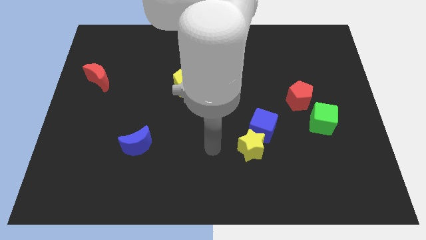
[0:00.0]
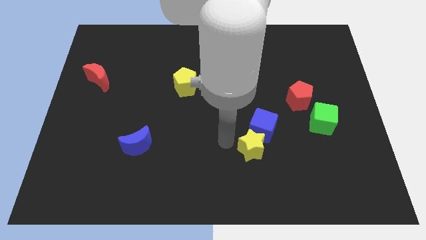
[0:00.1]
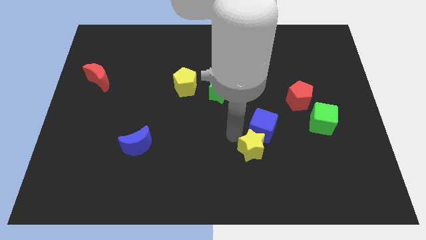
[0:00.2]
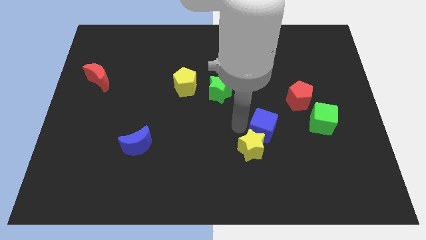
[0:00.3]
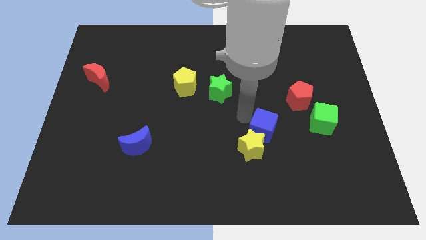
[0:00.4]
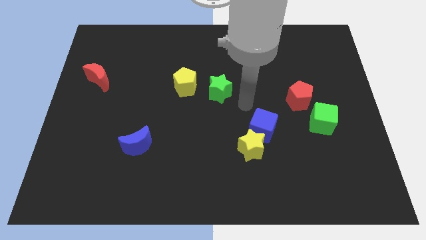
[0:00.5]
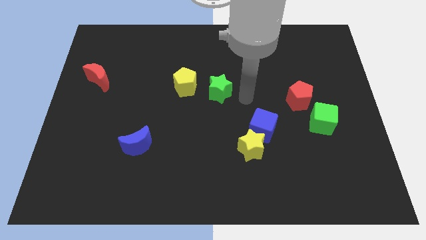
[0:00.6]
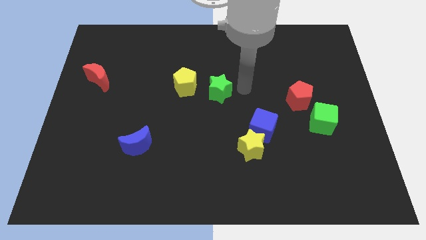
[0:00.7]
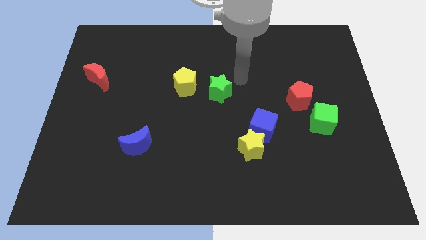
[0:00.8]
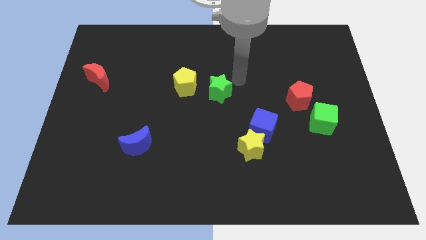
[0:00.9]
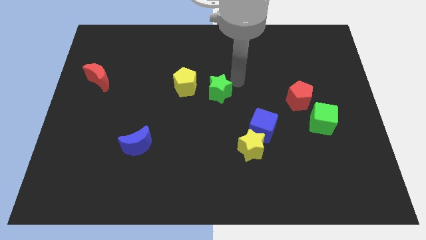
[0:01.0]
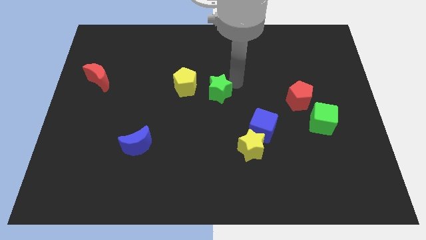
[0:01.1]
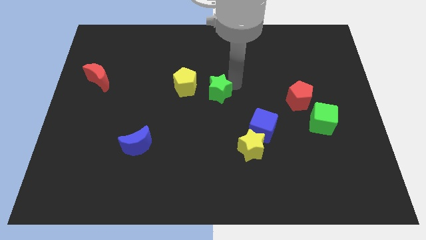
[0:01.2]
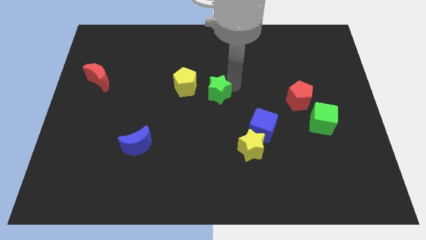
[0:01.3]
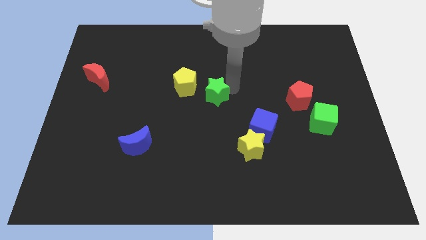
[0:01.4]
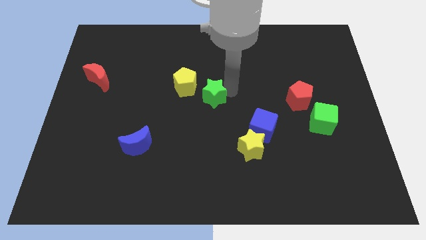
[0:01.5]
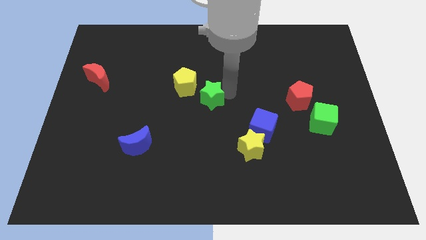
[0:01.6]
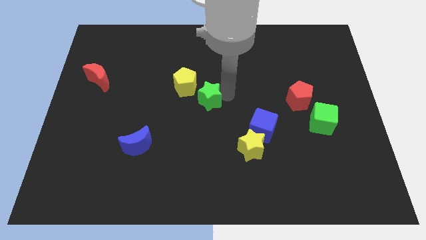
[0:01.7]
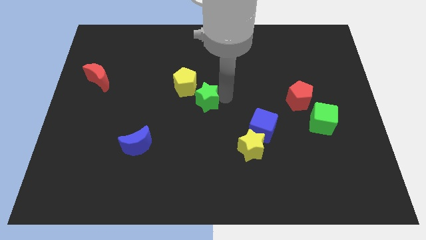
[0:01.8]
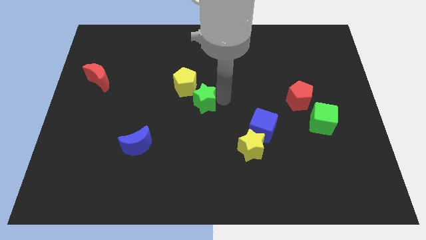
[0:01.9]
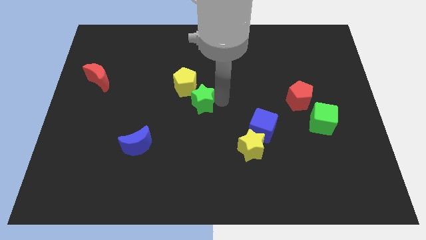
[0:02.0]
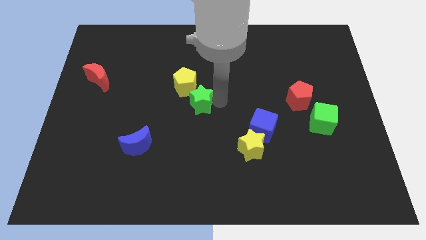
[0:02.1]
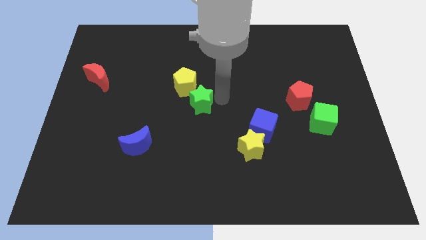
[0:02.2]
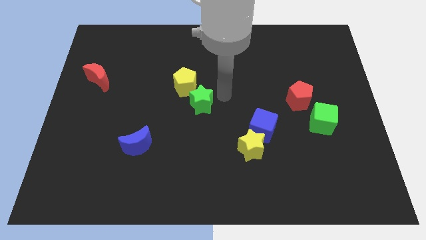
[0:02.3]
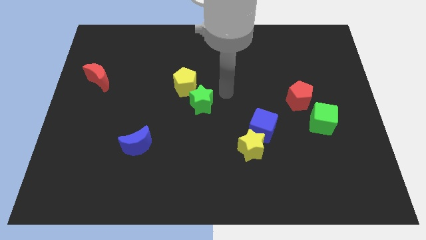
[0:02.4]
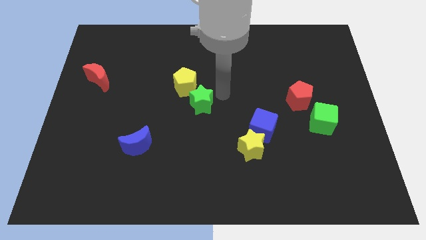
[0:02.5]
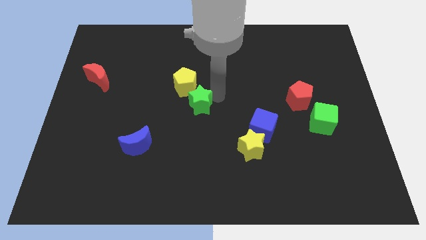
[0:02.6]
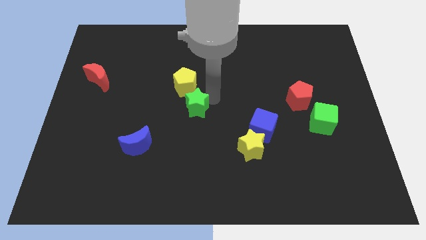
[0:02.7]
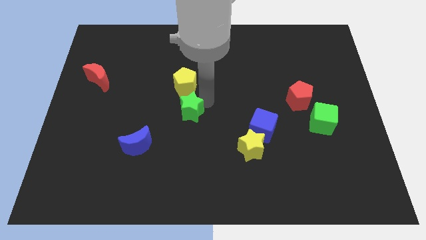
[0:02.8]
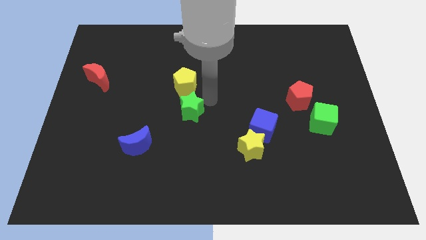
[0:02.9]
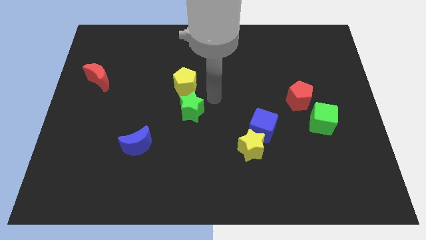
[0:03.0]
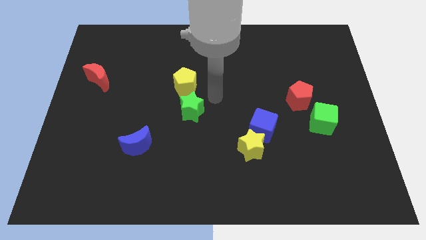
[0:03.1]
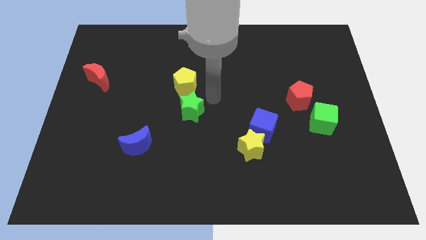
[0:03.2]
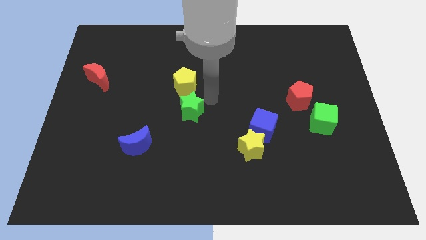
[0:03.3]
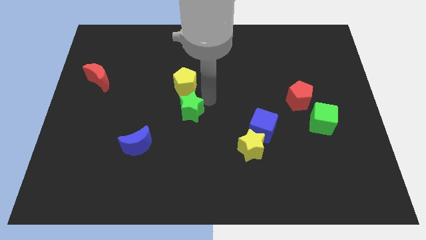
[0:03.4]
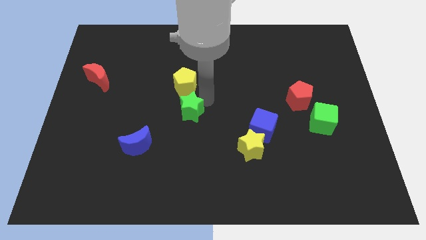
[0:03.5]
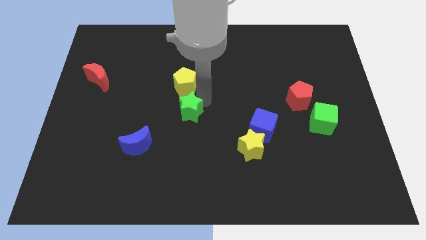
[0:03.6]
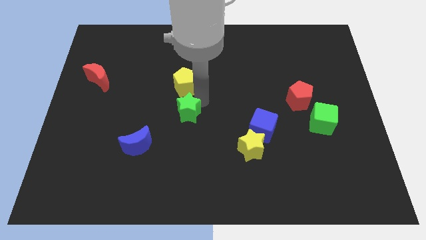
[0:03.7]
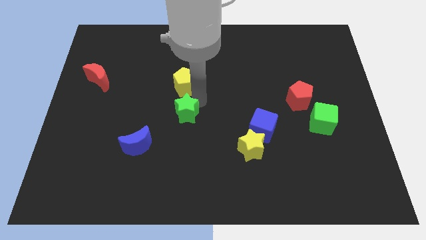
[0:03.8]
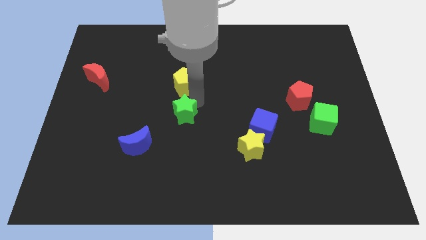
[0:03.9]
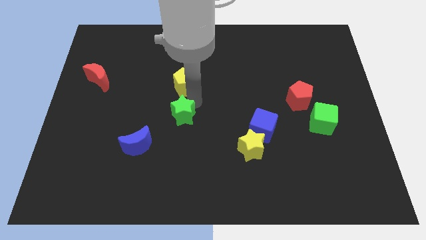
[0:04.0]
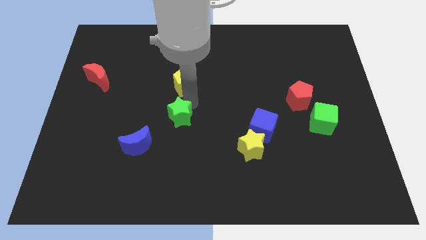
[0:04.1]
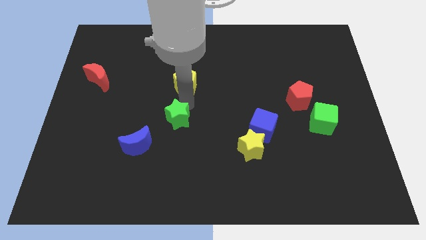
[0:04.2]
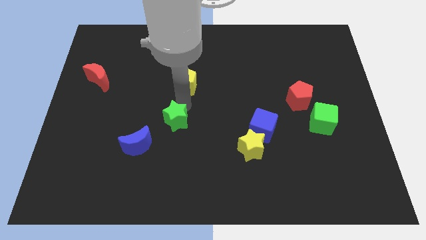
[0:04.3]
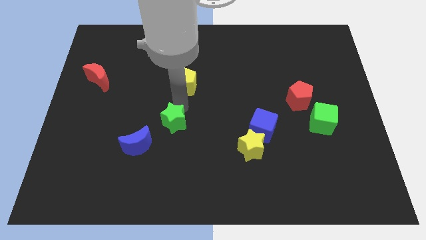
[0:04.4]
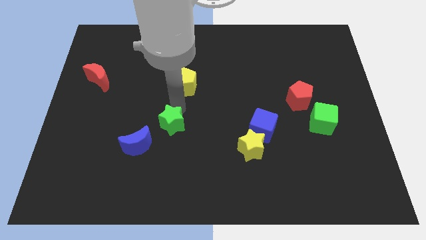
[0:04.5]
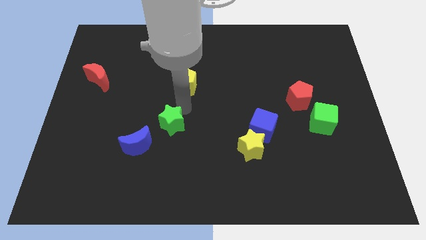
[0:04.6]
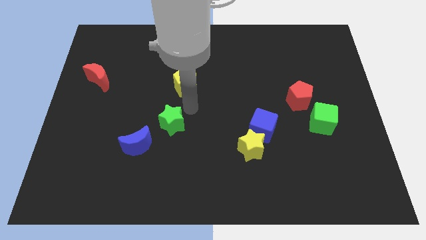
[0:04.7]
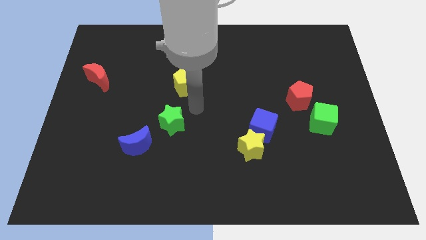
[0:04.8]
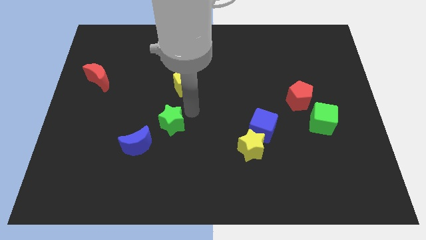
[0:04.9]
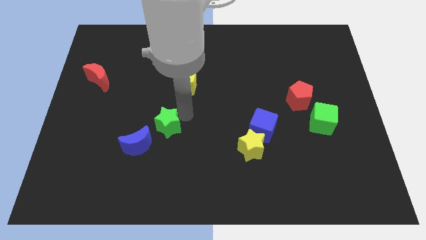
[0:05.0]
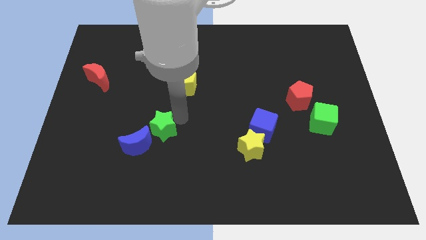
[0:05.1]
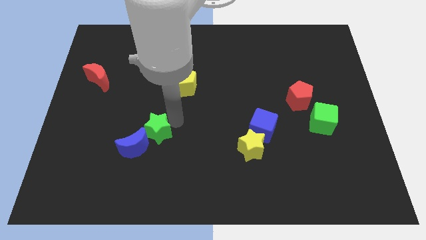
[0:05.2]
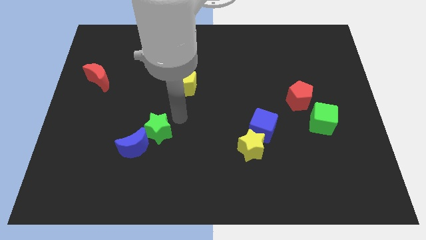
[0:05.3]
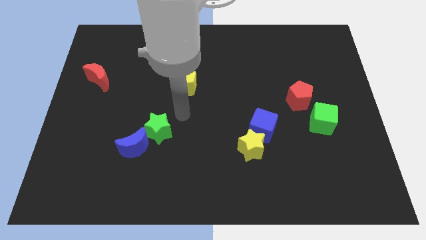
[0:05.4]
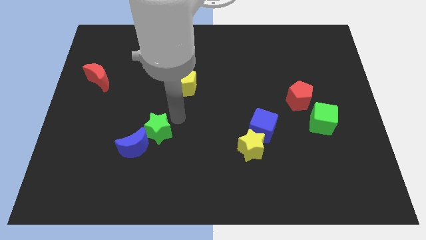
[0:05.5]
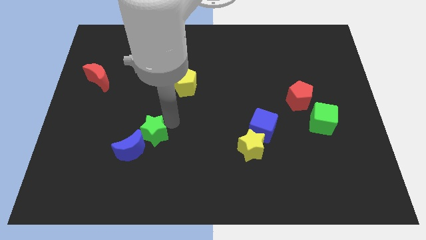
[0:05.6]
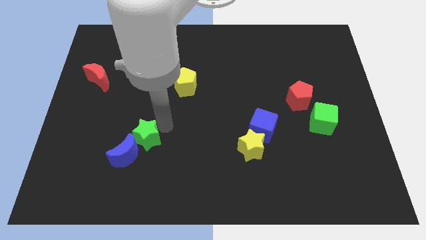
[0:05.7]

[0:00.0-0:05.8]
put the green star towards the blue moon

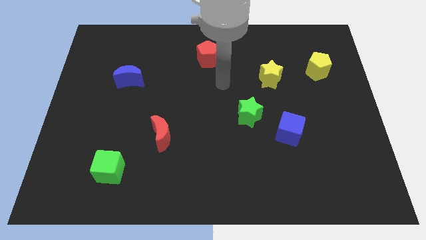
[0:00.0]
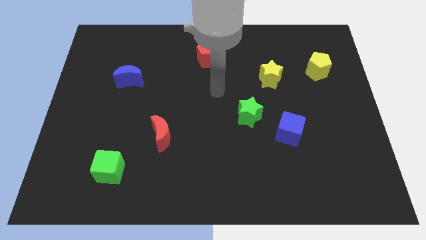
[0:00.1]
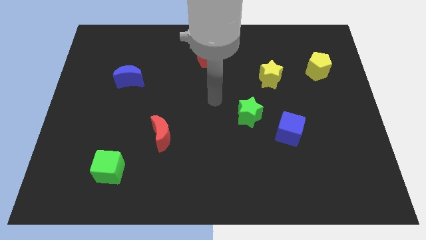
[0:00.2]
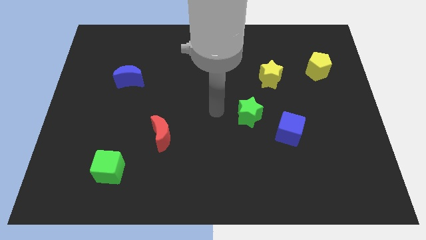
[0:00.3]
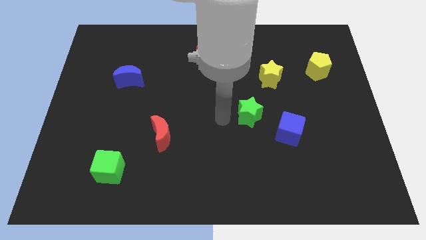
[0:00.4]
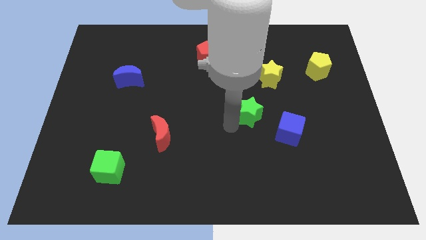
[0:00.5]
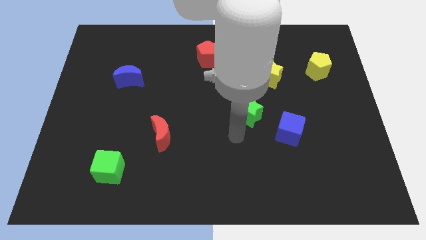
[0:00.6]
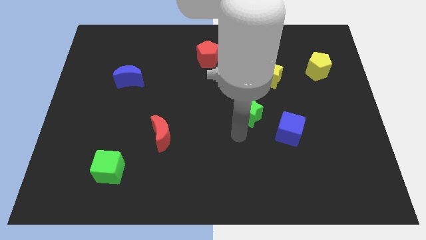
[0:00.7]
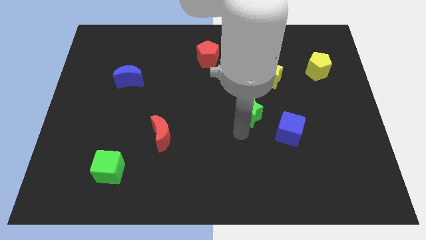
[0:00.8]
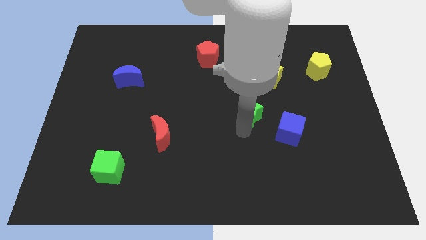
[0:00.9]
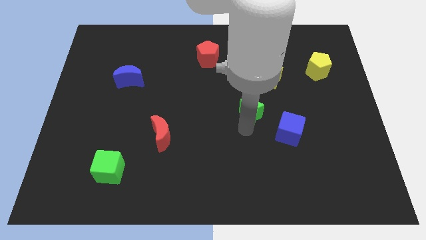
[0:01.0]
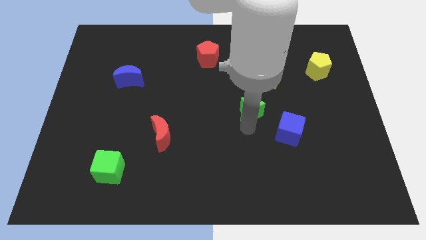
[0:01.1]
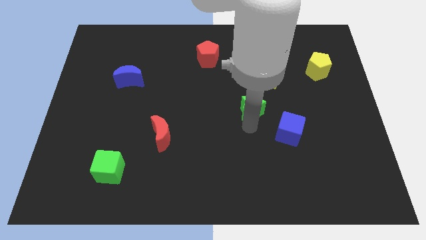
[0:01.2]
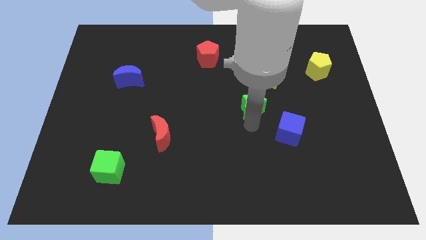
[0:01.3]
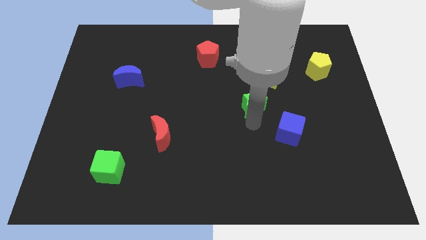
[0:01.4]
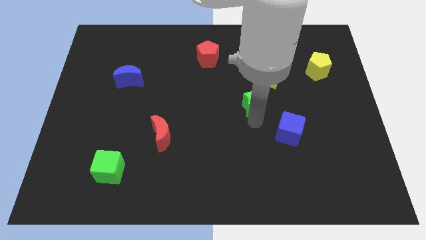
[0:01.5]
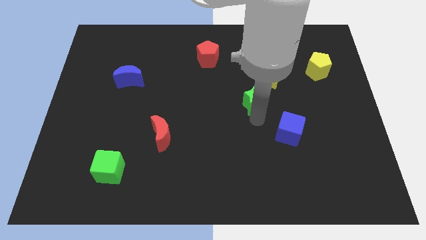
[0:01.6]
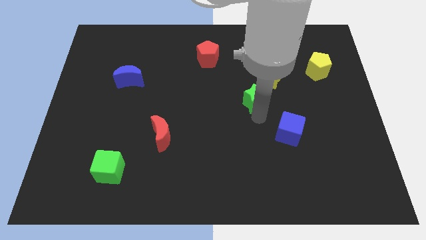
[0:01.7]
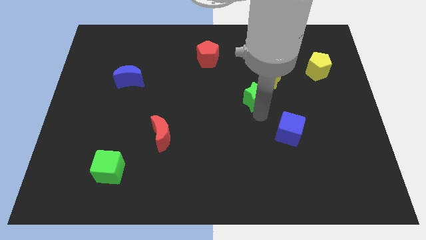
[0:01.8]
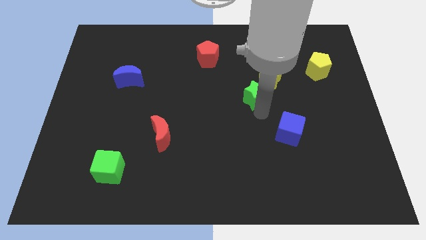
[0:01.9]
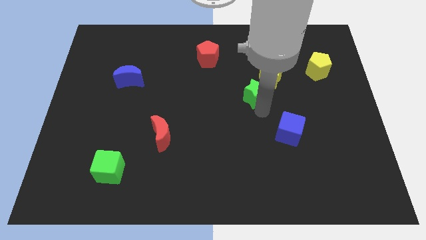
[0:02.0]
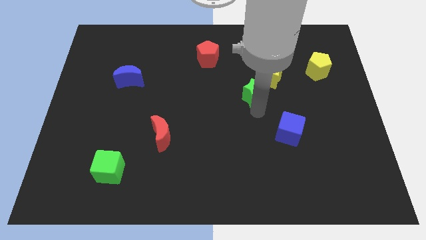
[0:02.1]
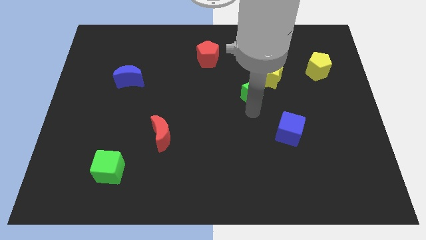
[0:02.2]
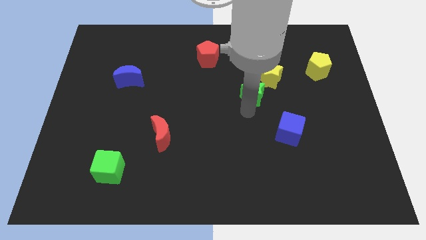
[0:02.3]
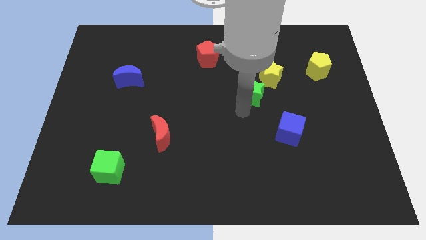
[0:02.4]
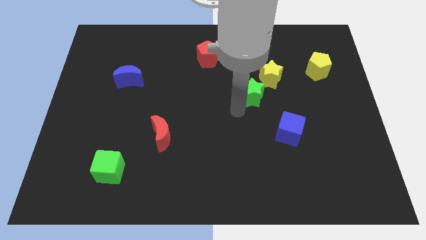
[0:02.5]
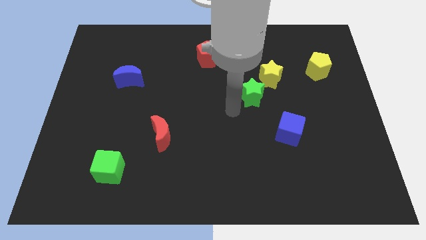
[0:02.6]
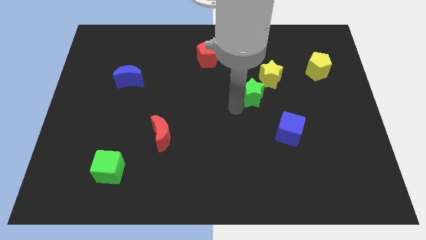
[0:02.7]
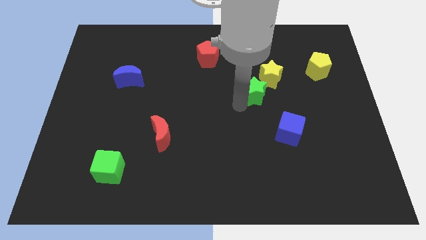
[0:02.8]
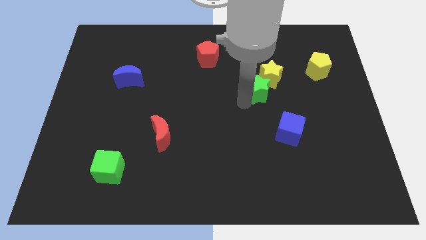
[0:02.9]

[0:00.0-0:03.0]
put the green star towards the yellow star
